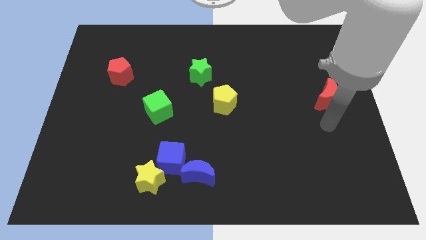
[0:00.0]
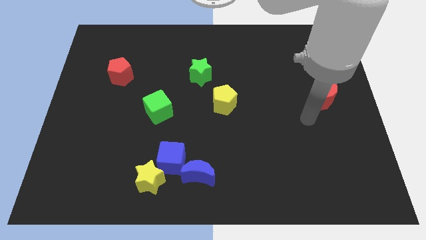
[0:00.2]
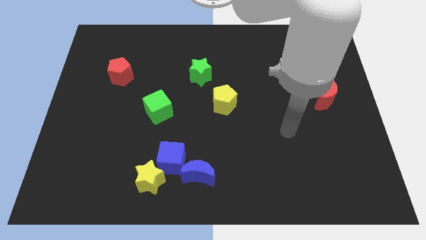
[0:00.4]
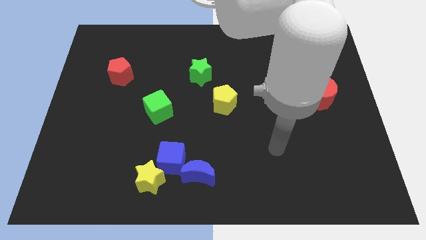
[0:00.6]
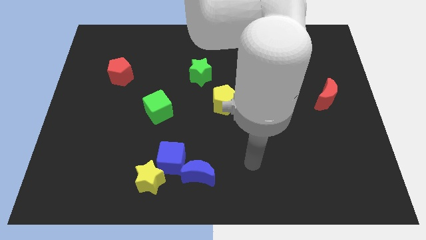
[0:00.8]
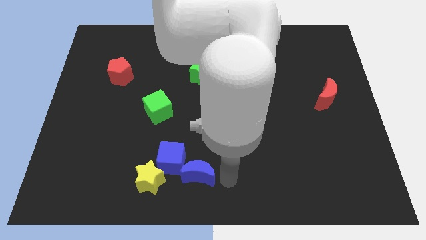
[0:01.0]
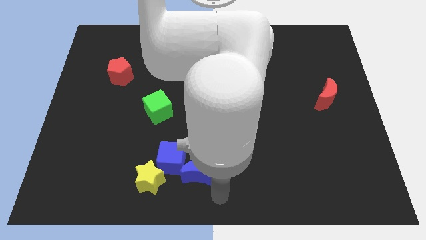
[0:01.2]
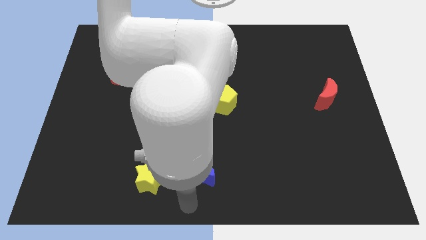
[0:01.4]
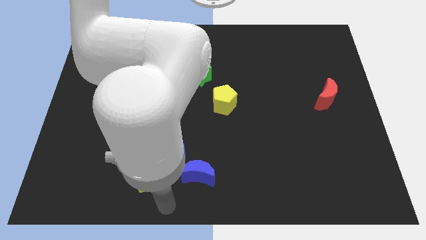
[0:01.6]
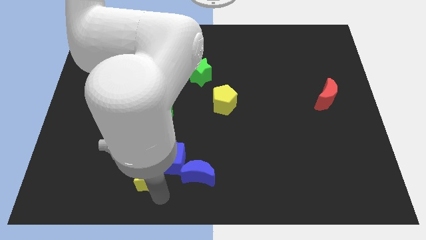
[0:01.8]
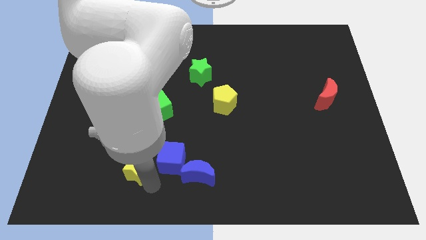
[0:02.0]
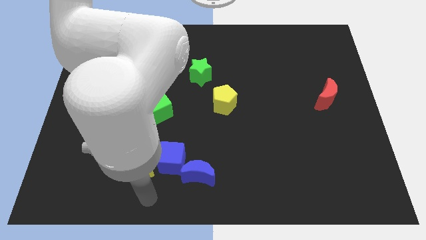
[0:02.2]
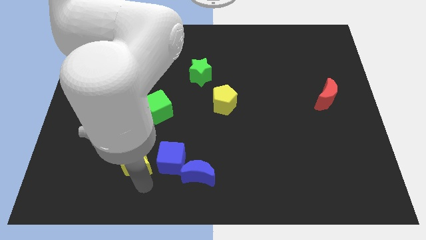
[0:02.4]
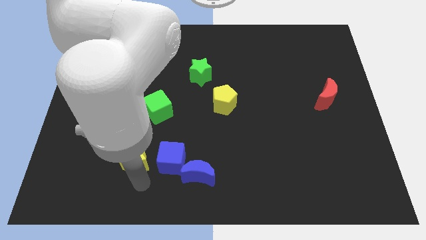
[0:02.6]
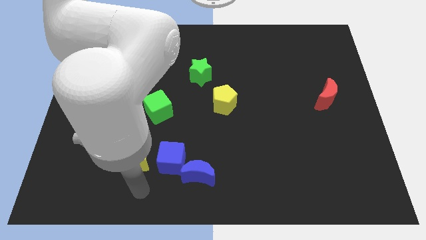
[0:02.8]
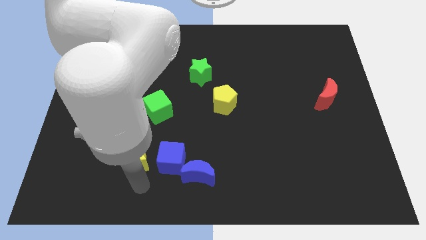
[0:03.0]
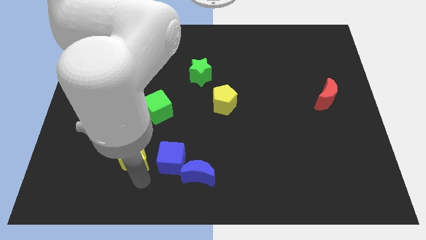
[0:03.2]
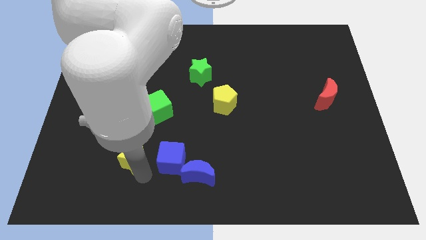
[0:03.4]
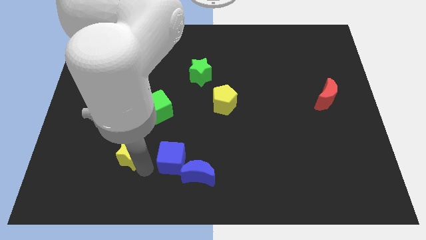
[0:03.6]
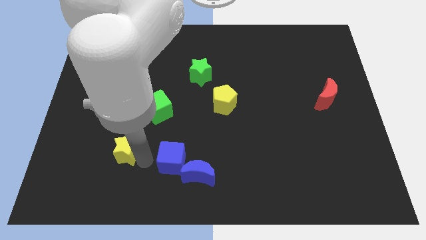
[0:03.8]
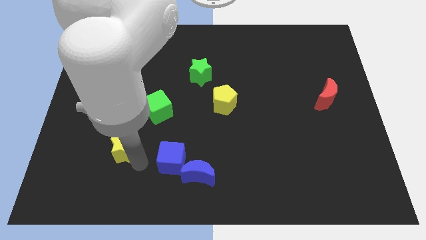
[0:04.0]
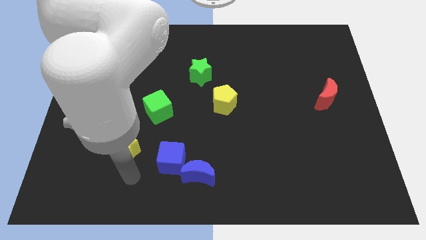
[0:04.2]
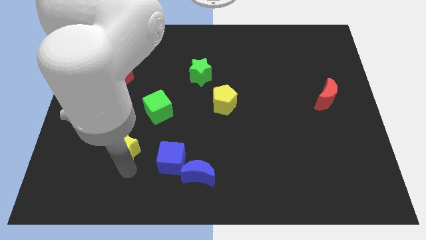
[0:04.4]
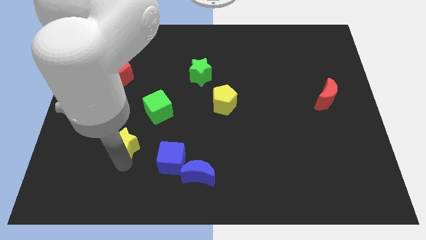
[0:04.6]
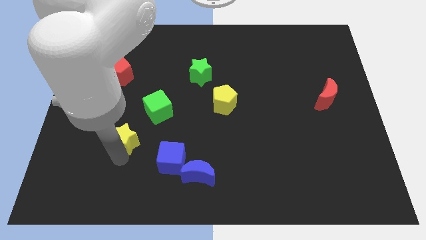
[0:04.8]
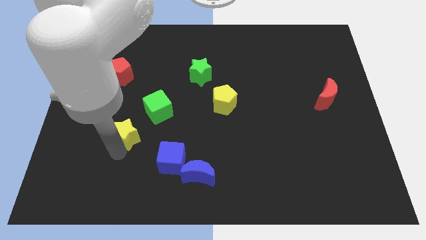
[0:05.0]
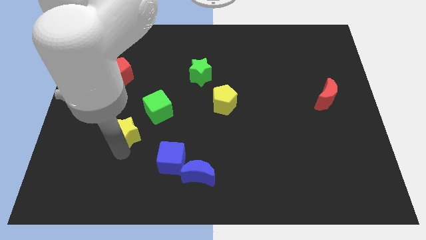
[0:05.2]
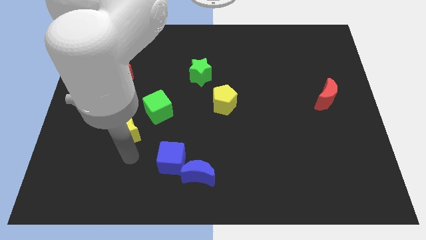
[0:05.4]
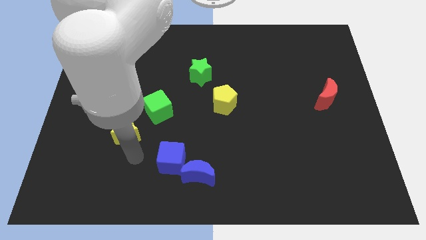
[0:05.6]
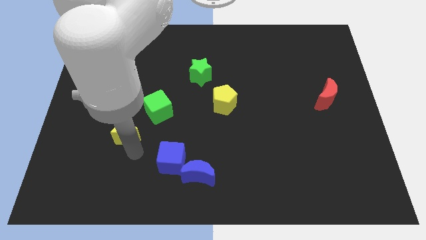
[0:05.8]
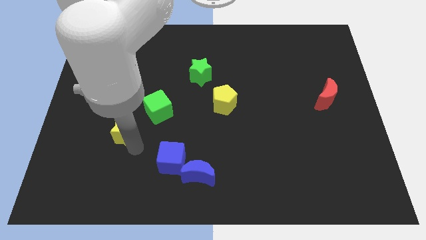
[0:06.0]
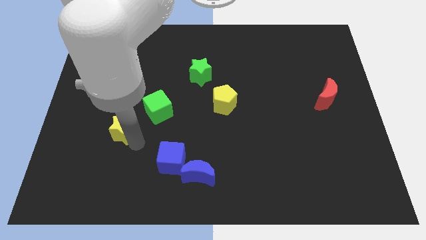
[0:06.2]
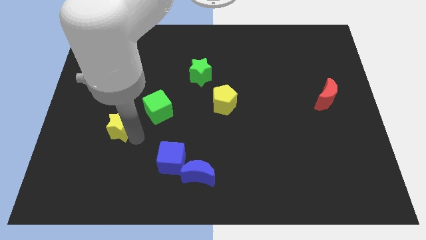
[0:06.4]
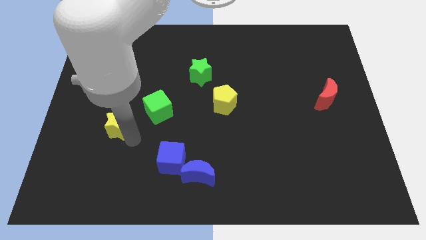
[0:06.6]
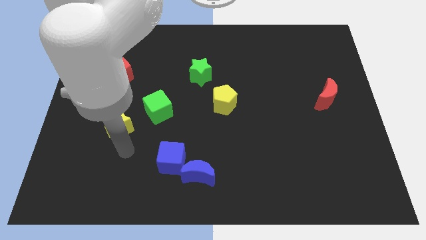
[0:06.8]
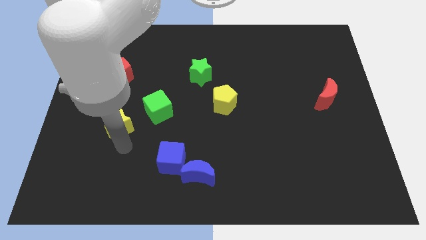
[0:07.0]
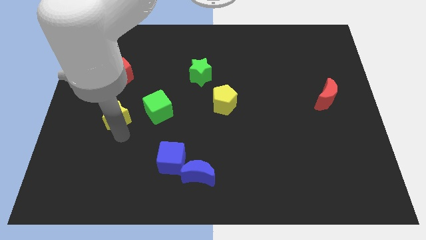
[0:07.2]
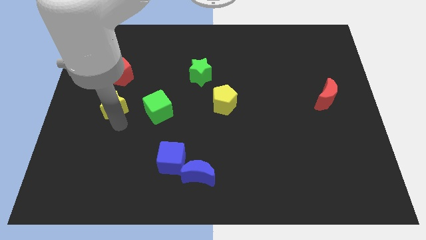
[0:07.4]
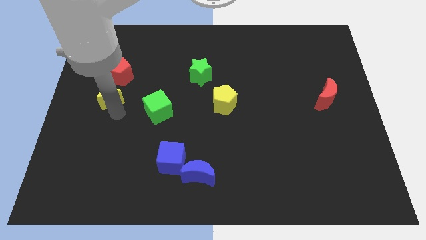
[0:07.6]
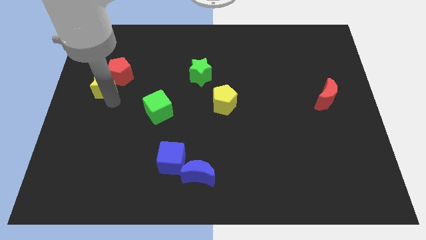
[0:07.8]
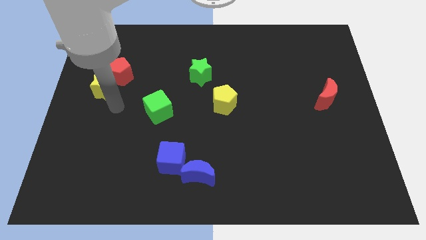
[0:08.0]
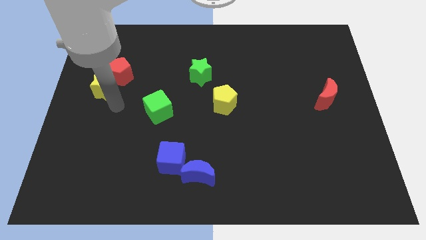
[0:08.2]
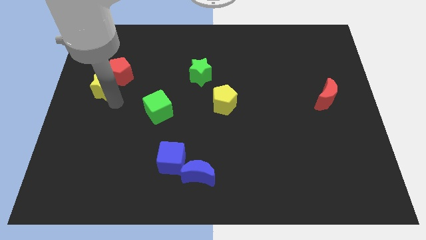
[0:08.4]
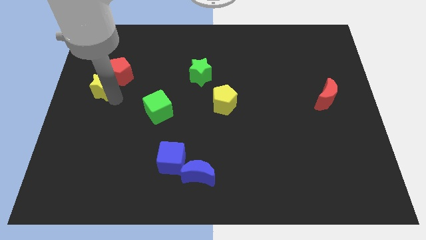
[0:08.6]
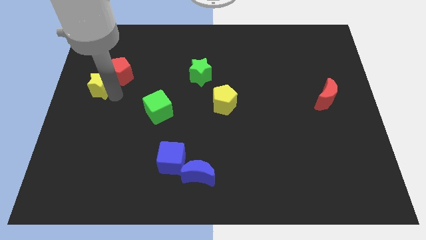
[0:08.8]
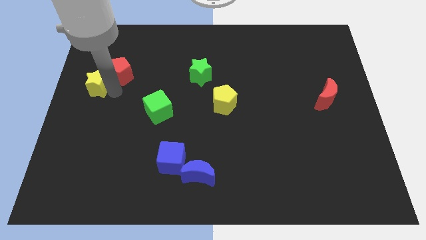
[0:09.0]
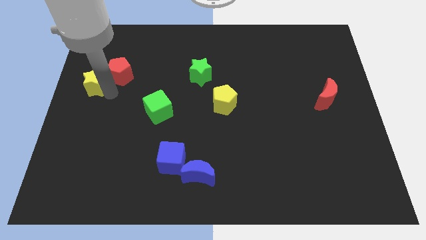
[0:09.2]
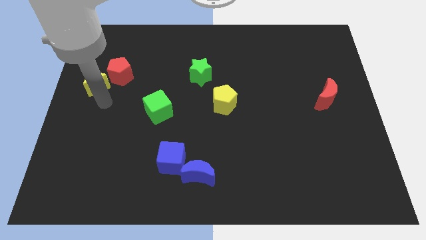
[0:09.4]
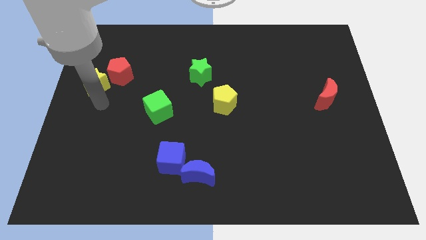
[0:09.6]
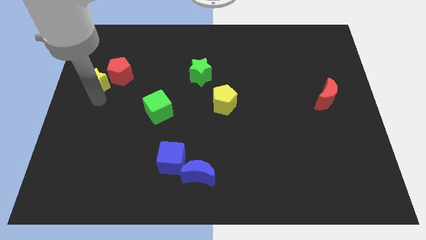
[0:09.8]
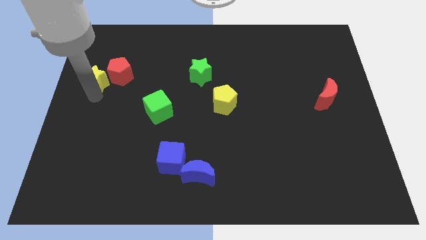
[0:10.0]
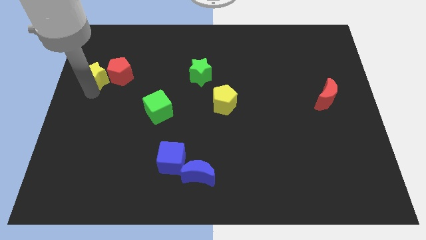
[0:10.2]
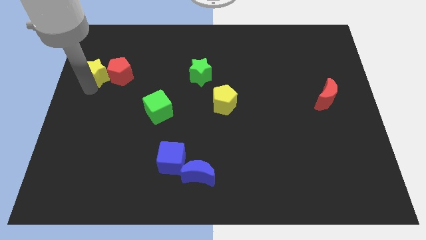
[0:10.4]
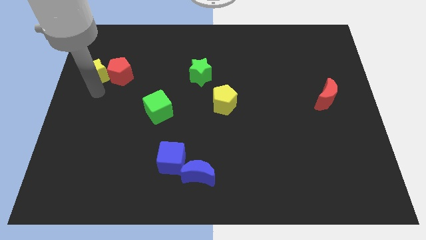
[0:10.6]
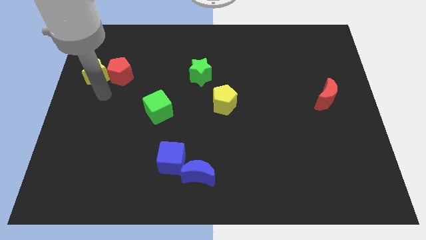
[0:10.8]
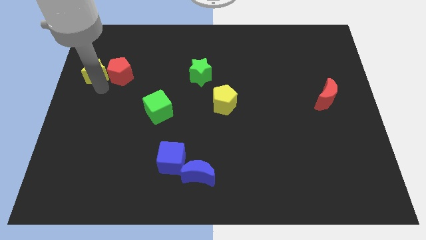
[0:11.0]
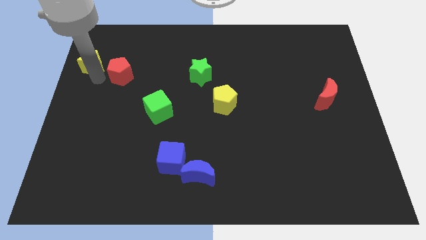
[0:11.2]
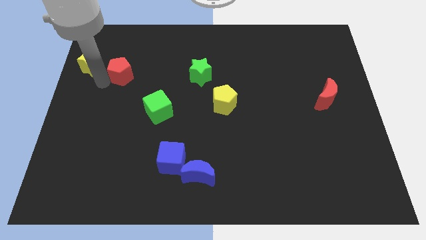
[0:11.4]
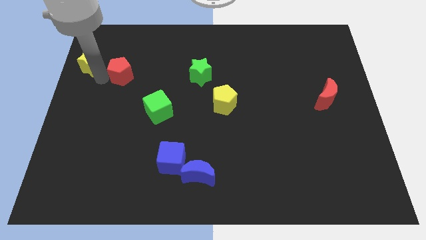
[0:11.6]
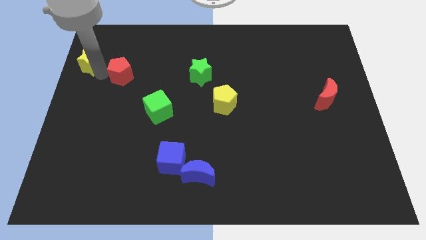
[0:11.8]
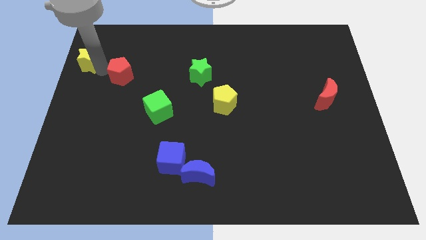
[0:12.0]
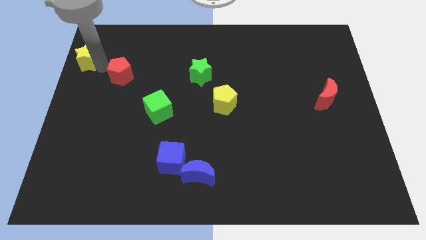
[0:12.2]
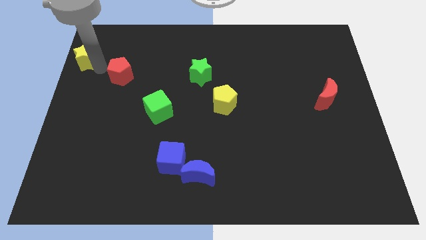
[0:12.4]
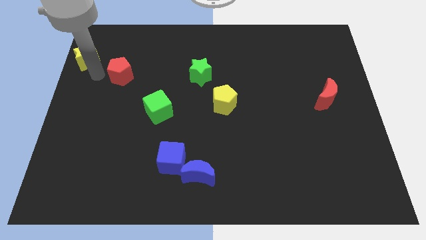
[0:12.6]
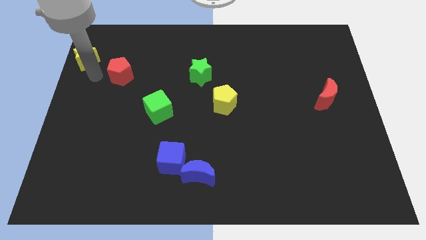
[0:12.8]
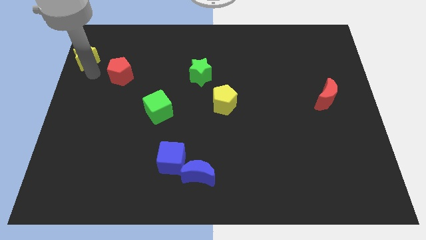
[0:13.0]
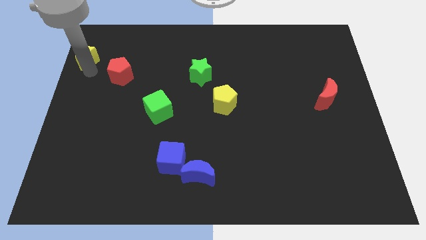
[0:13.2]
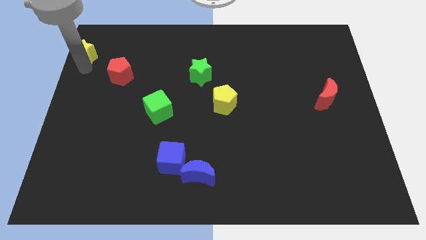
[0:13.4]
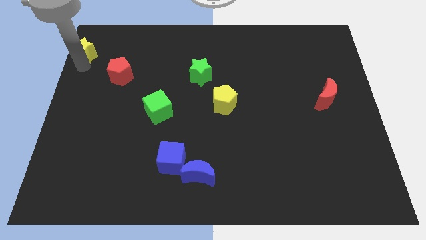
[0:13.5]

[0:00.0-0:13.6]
slide the yellow star to the top left of the board

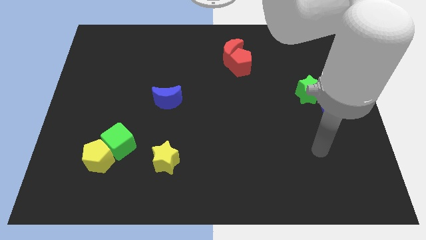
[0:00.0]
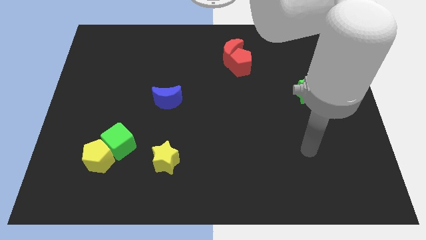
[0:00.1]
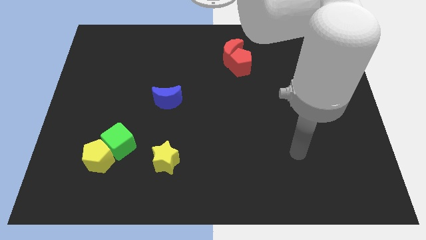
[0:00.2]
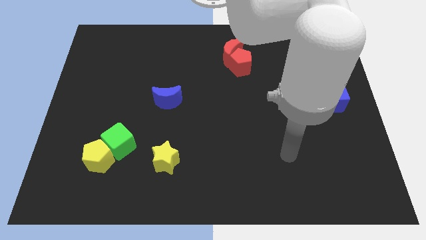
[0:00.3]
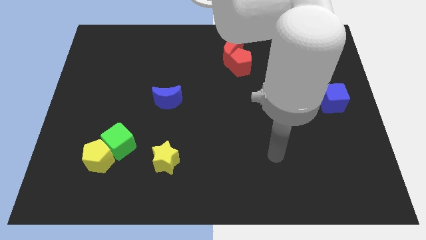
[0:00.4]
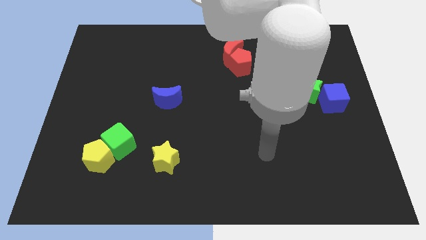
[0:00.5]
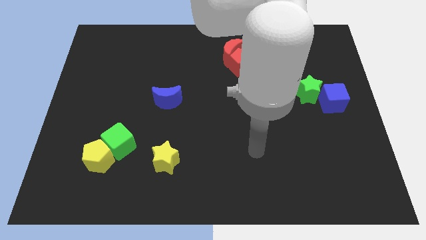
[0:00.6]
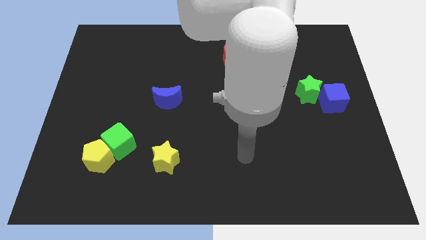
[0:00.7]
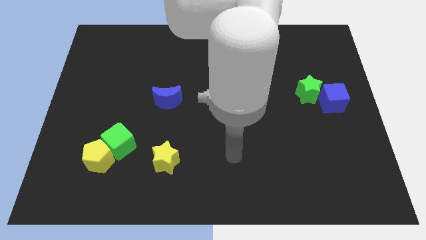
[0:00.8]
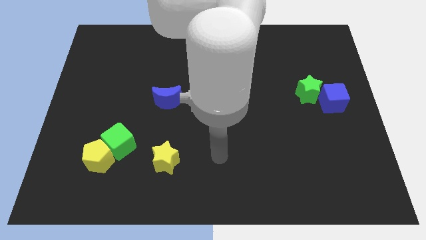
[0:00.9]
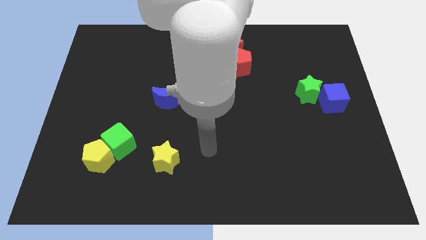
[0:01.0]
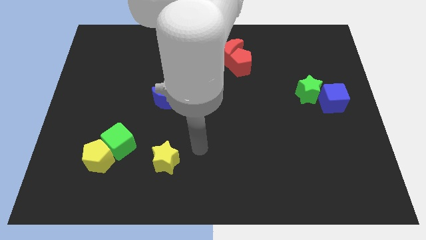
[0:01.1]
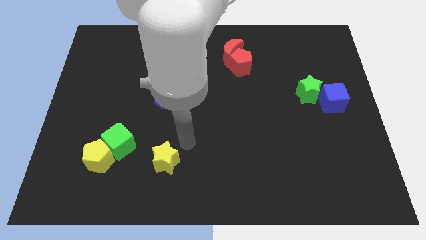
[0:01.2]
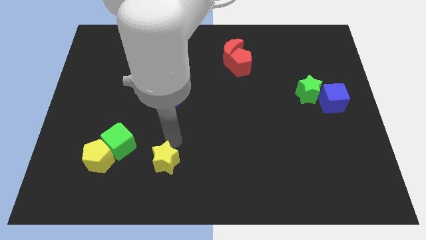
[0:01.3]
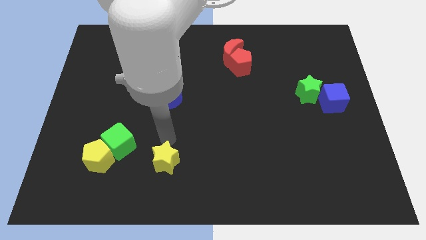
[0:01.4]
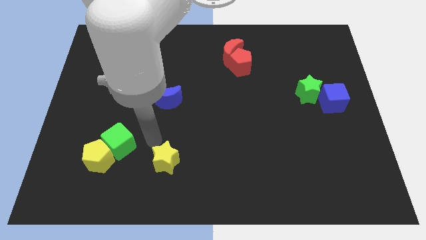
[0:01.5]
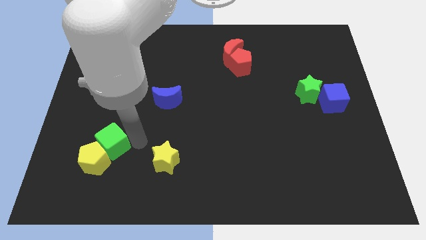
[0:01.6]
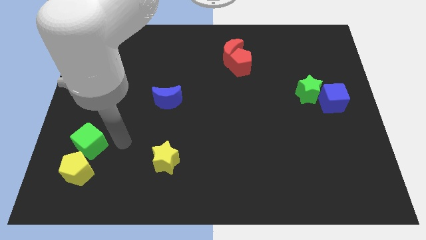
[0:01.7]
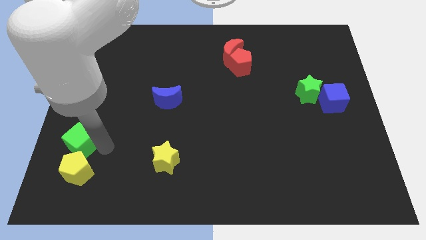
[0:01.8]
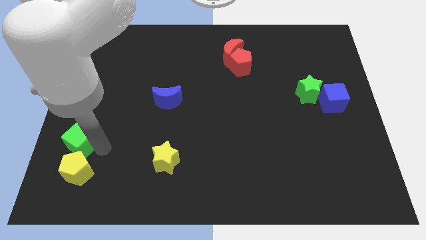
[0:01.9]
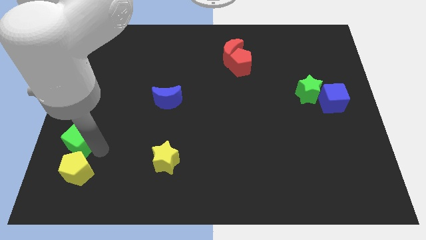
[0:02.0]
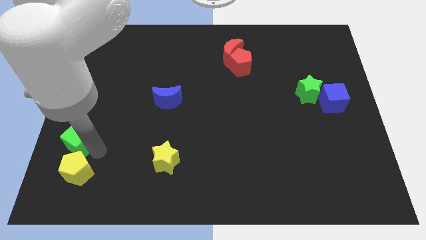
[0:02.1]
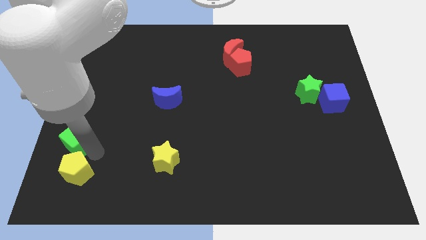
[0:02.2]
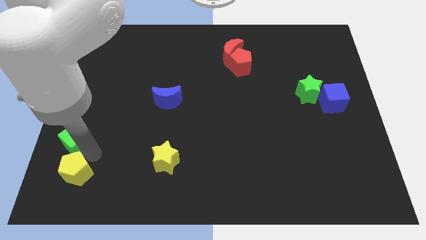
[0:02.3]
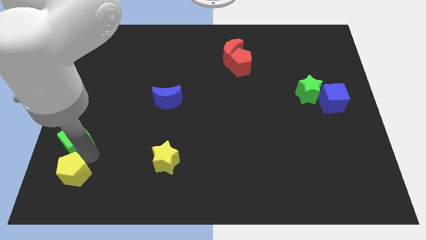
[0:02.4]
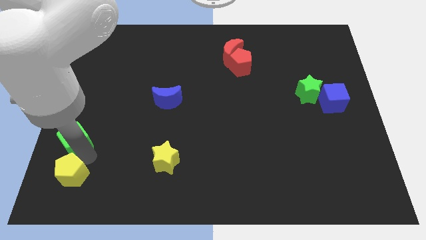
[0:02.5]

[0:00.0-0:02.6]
push the yellow pentagon to the lower left corner
